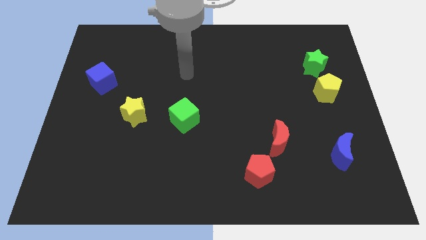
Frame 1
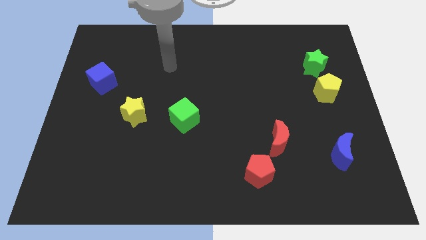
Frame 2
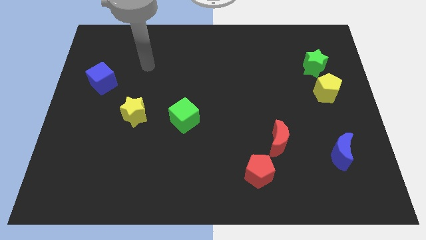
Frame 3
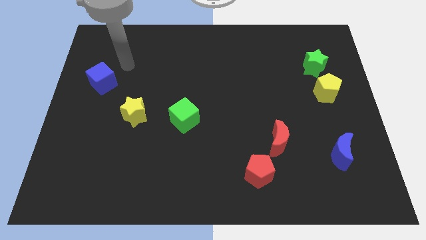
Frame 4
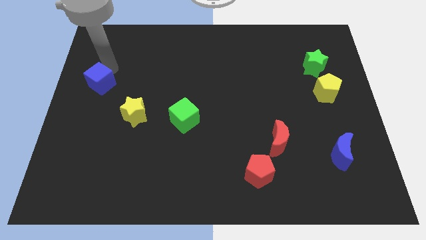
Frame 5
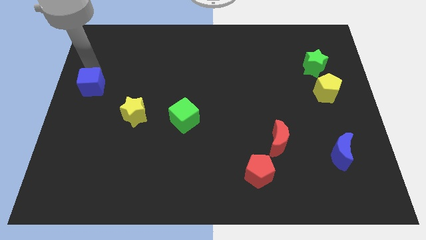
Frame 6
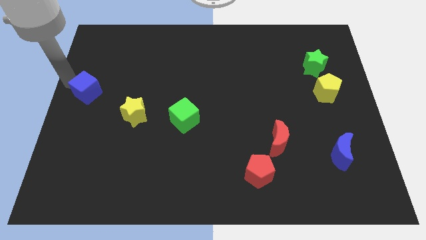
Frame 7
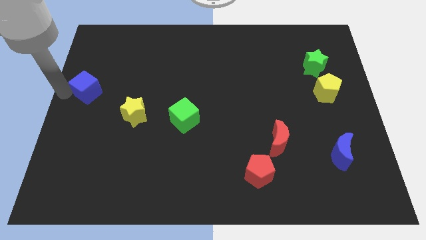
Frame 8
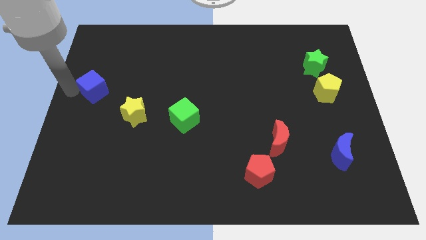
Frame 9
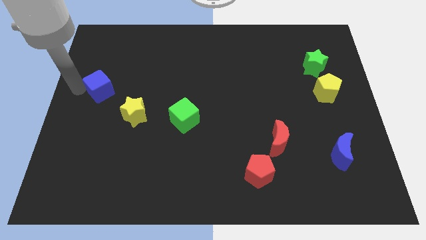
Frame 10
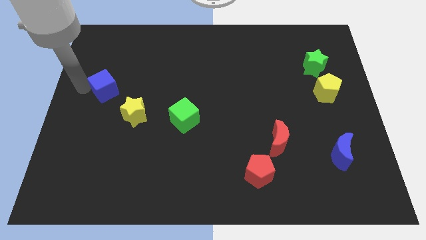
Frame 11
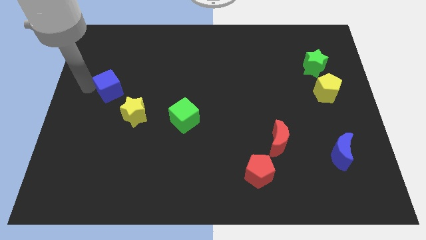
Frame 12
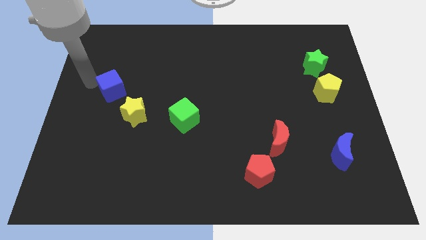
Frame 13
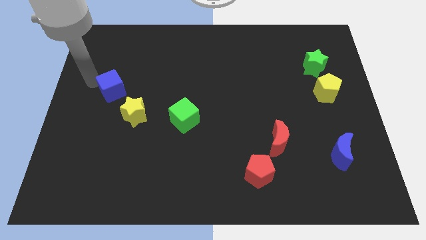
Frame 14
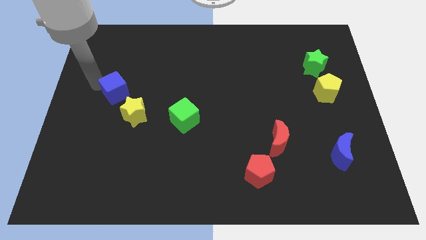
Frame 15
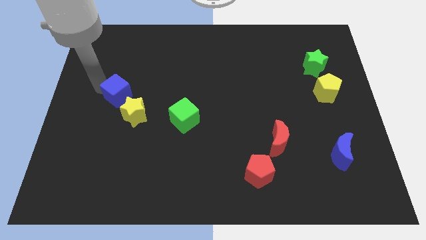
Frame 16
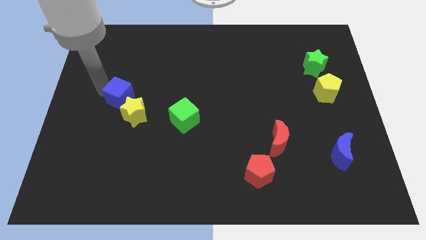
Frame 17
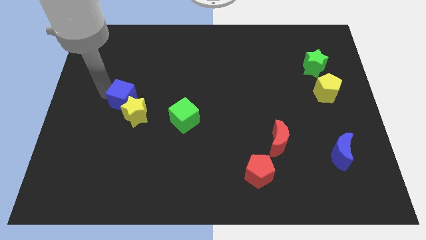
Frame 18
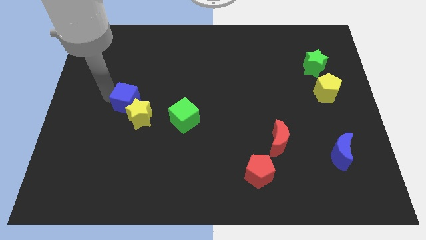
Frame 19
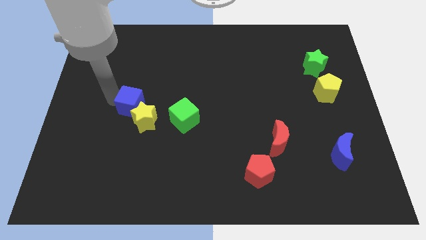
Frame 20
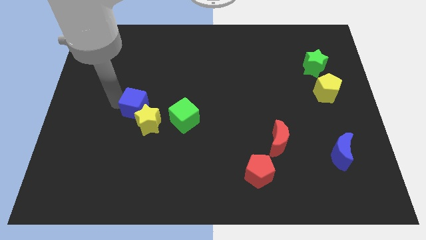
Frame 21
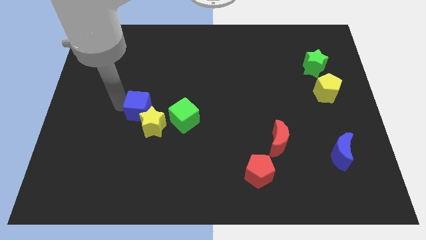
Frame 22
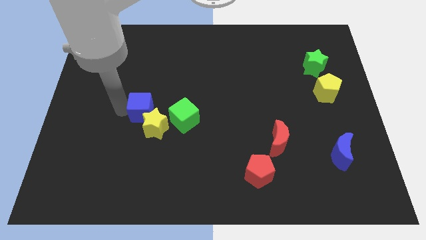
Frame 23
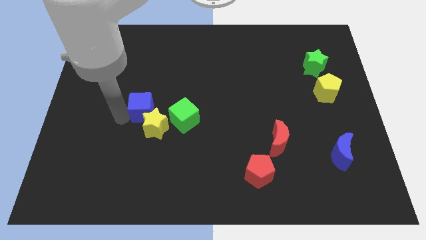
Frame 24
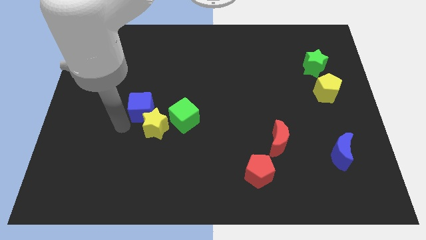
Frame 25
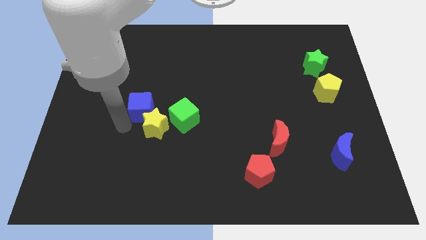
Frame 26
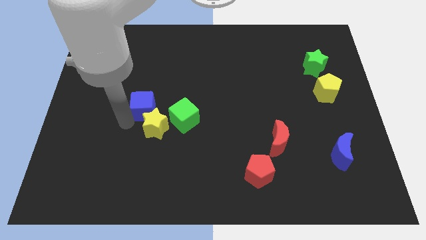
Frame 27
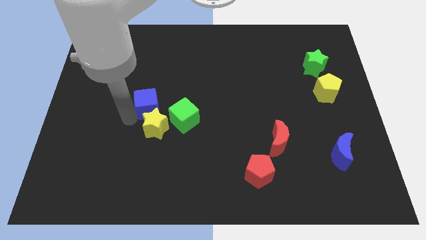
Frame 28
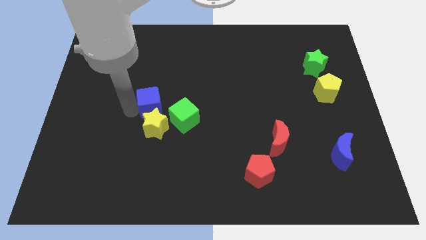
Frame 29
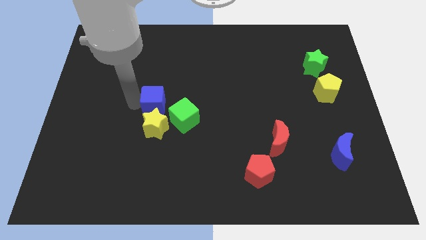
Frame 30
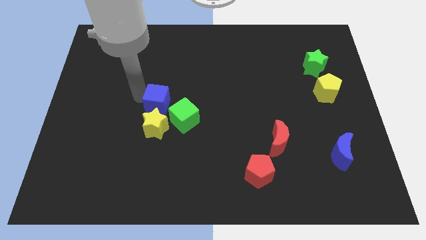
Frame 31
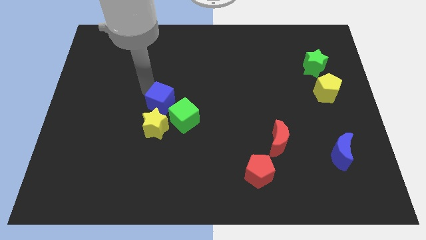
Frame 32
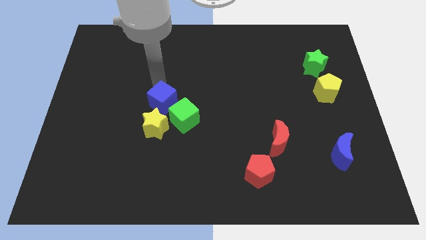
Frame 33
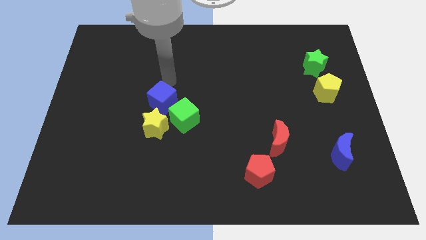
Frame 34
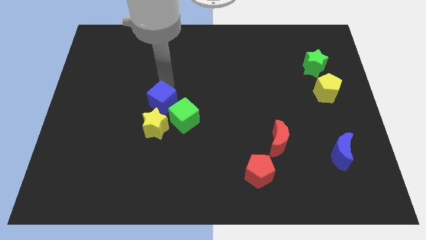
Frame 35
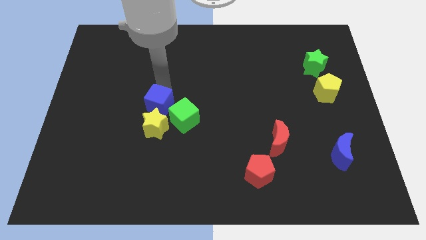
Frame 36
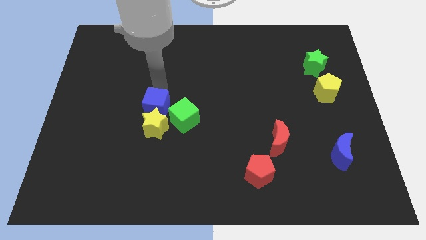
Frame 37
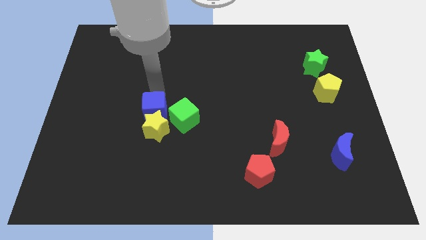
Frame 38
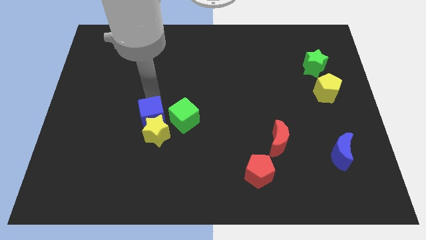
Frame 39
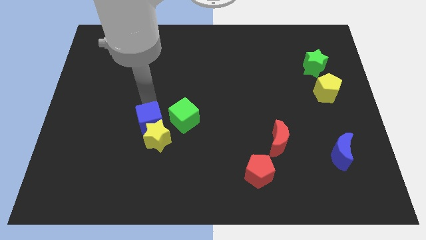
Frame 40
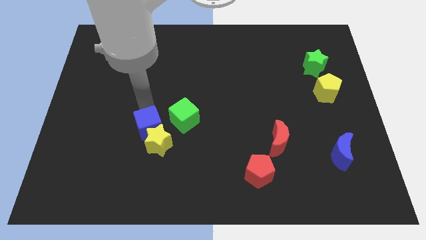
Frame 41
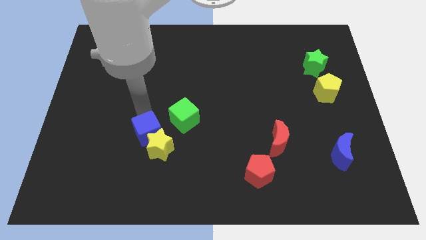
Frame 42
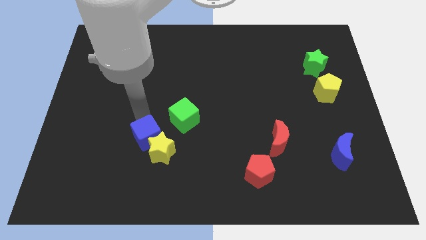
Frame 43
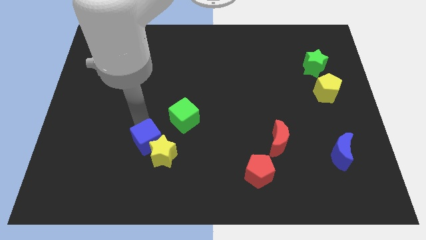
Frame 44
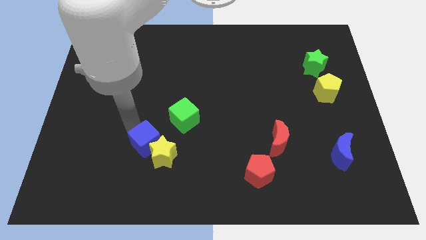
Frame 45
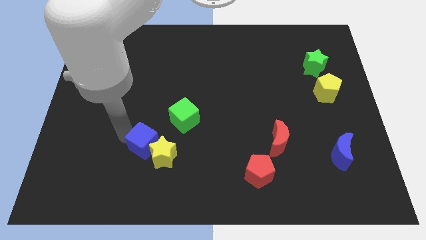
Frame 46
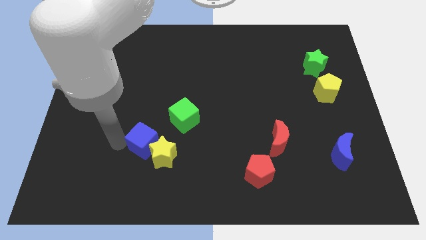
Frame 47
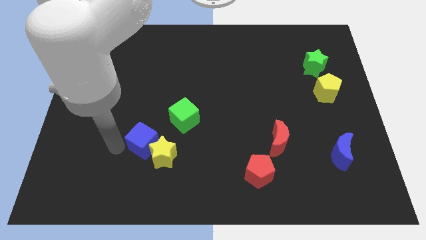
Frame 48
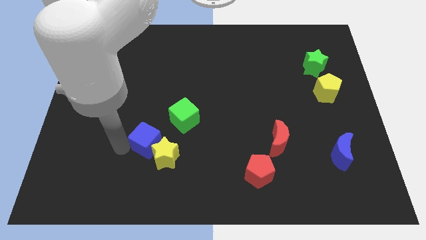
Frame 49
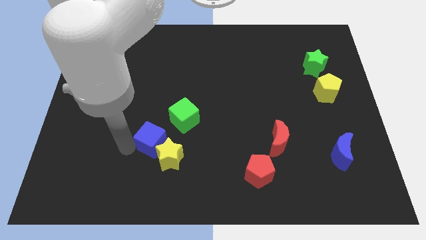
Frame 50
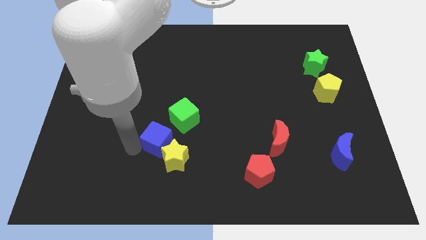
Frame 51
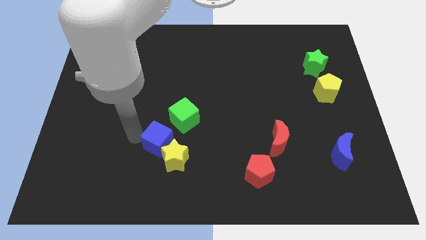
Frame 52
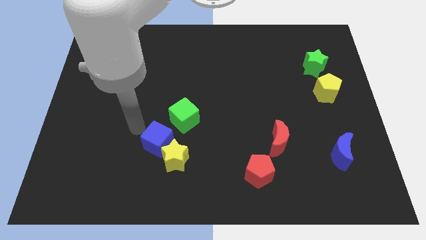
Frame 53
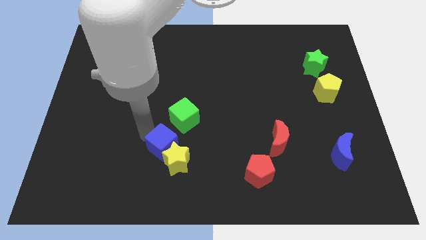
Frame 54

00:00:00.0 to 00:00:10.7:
put the blue cube to the bottom of the green cube

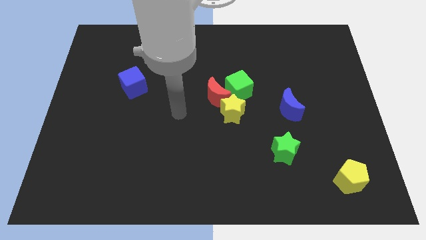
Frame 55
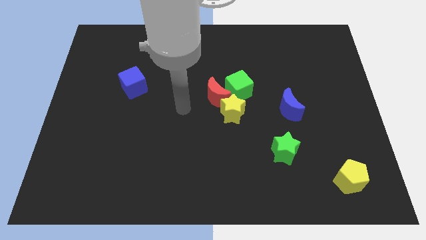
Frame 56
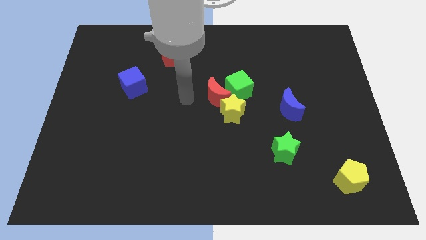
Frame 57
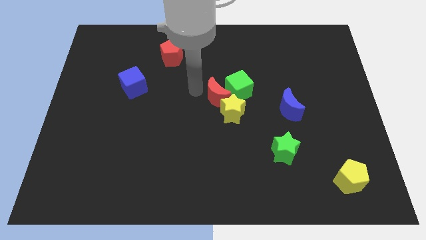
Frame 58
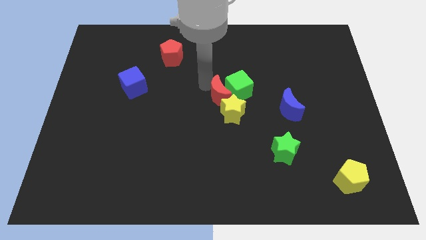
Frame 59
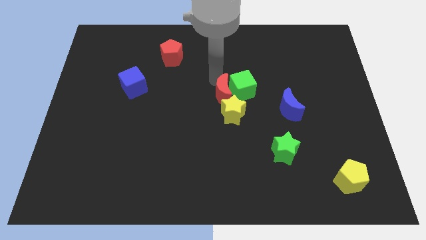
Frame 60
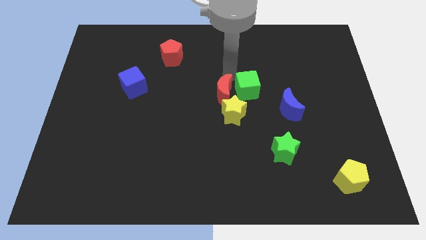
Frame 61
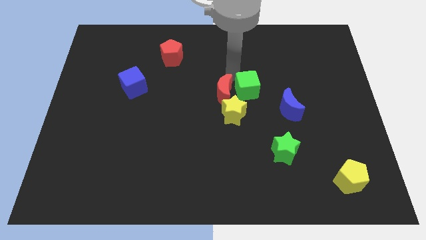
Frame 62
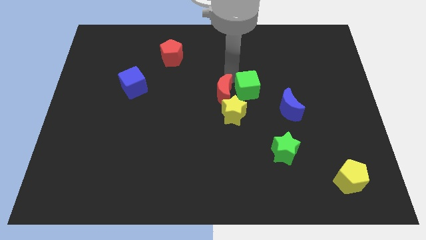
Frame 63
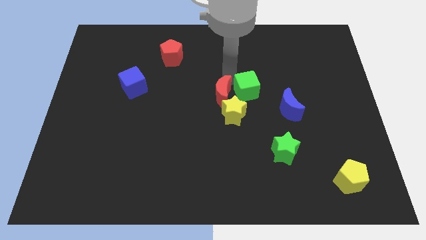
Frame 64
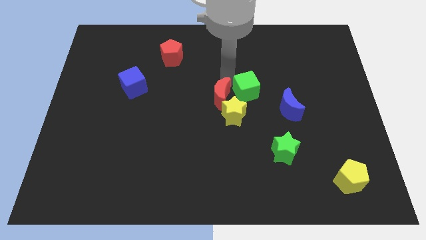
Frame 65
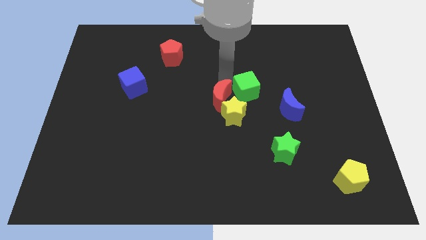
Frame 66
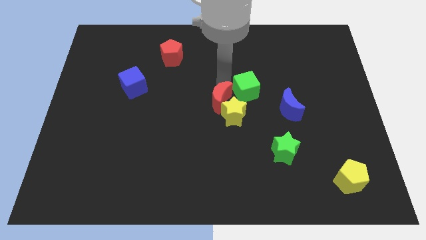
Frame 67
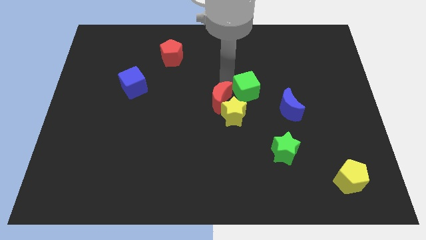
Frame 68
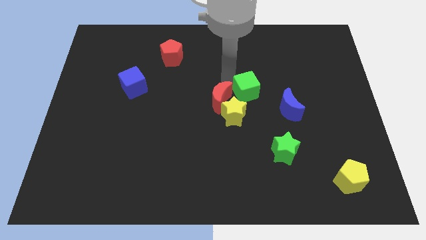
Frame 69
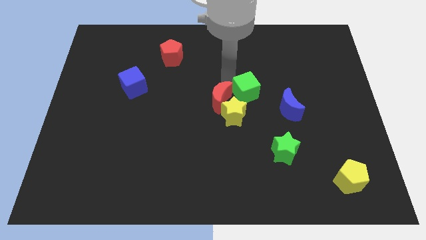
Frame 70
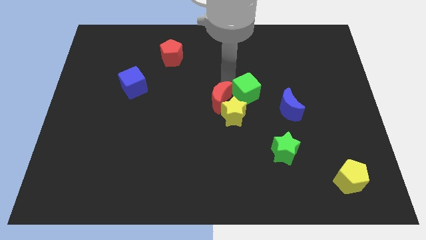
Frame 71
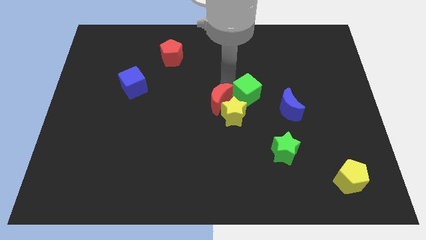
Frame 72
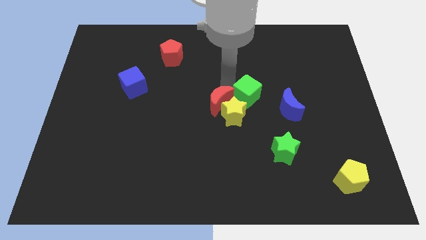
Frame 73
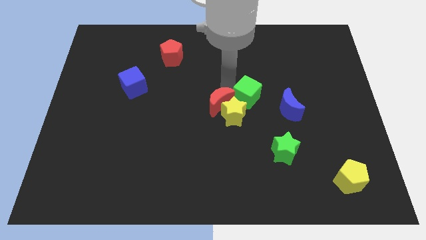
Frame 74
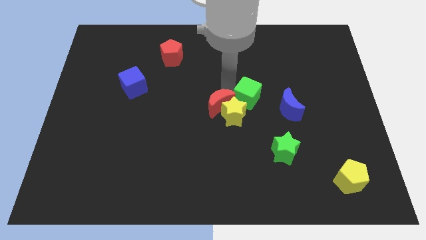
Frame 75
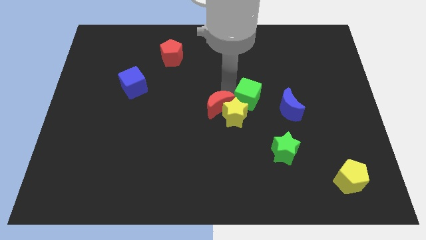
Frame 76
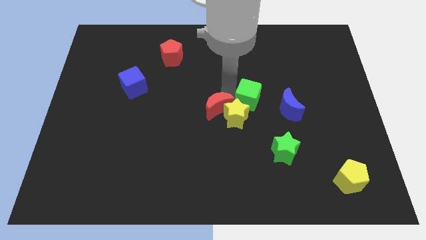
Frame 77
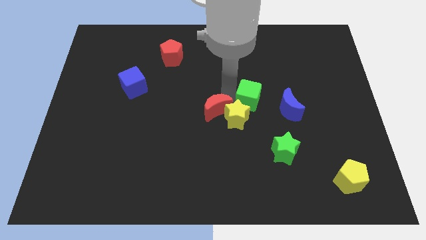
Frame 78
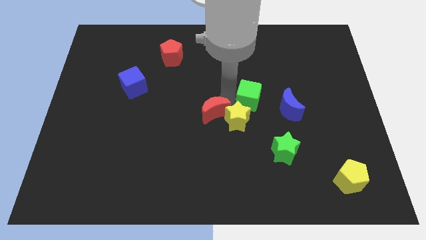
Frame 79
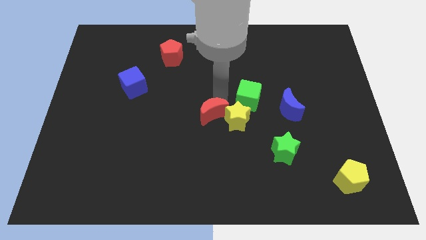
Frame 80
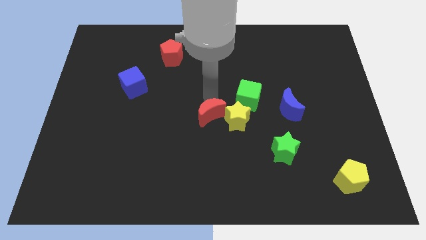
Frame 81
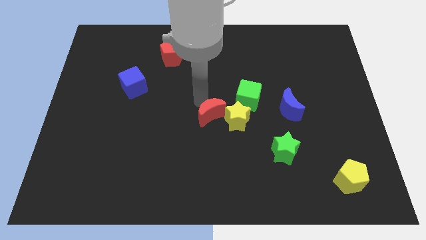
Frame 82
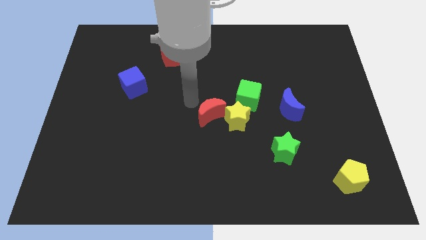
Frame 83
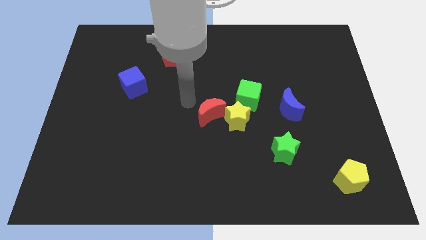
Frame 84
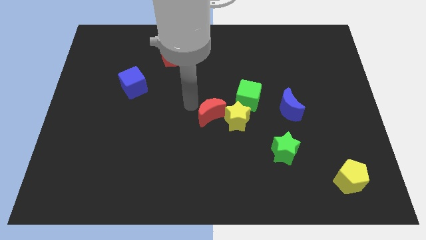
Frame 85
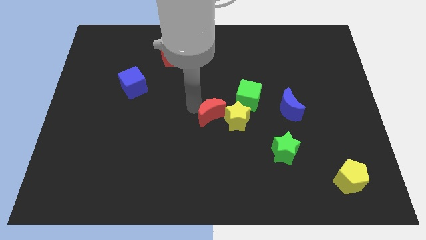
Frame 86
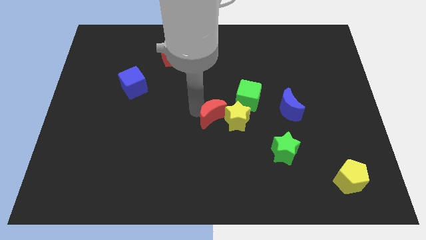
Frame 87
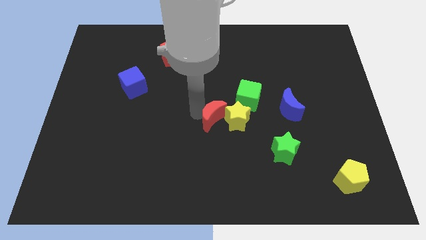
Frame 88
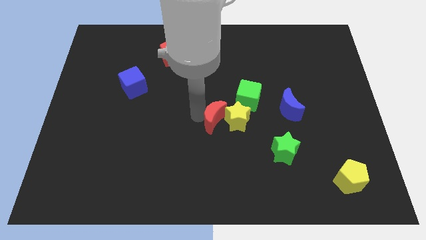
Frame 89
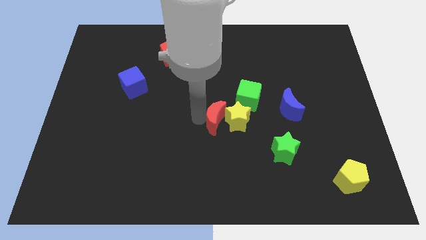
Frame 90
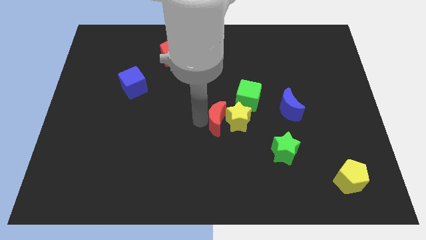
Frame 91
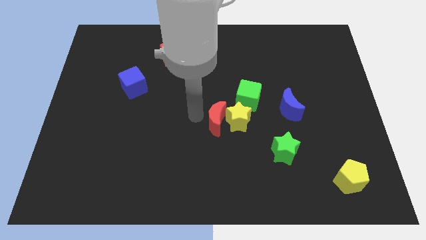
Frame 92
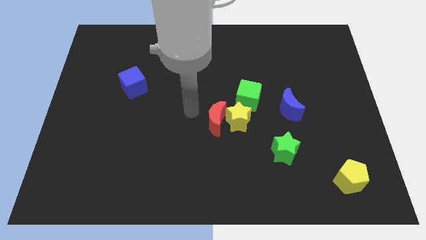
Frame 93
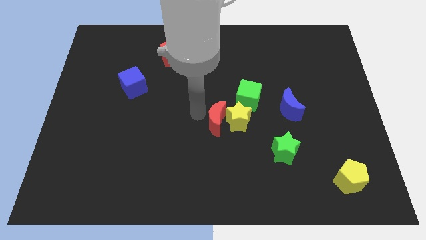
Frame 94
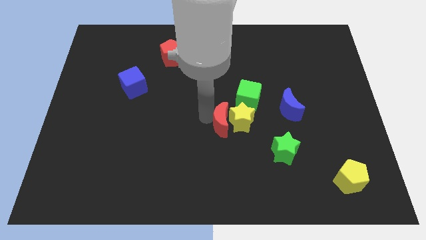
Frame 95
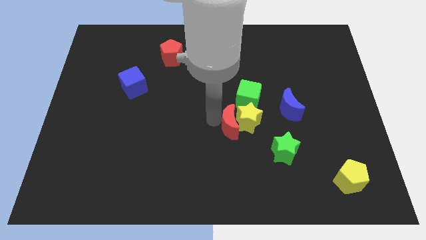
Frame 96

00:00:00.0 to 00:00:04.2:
slide the red moon to the bottom of the green cube
